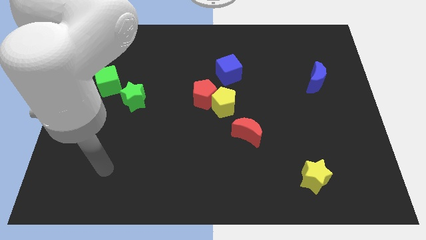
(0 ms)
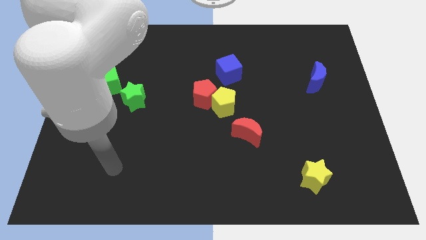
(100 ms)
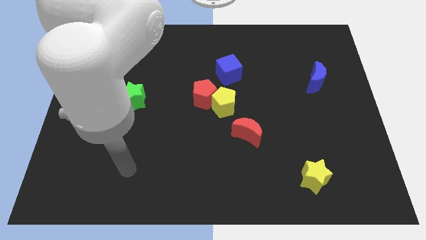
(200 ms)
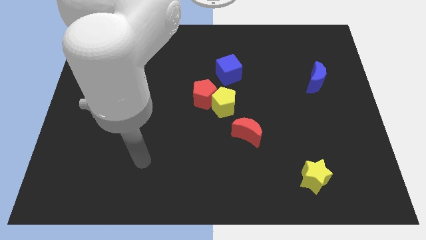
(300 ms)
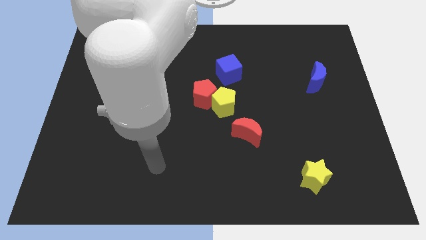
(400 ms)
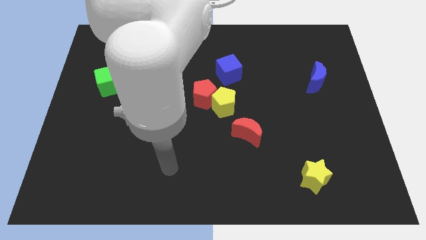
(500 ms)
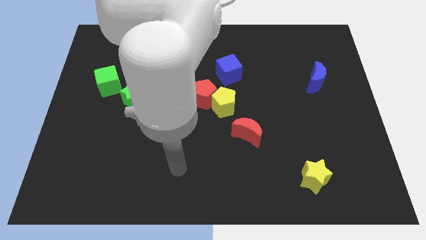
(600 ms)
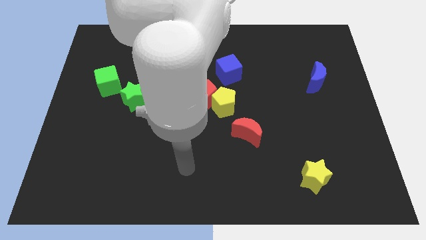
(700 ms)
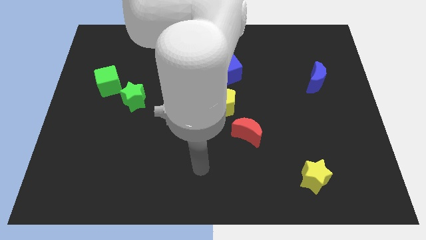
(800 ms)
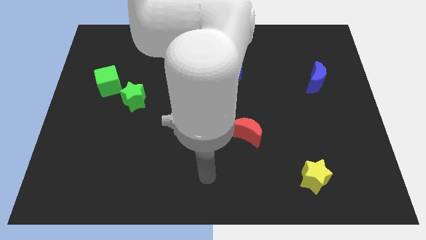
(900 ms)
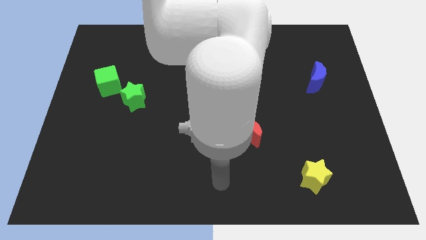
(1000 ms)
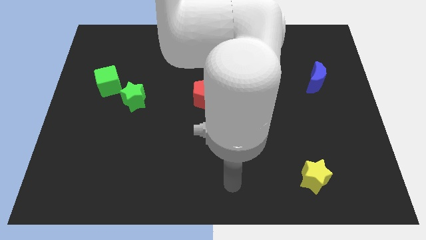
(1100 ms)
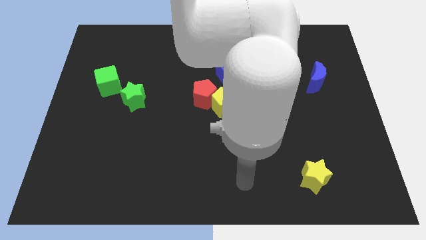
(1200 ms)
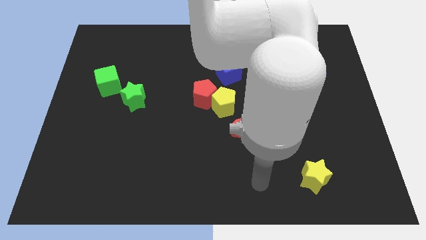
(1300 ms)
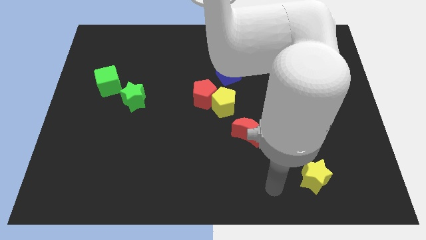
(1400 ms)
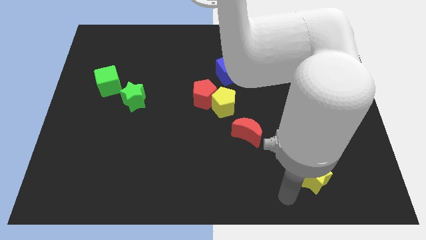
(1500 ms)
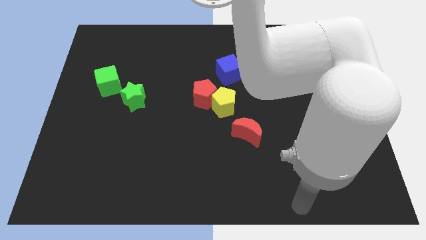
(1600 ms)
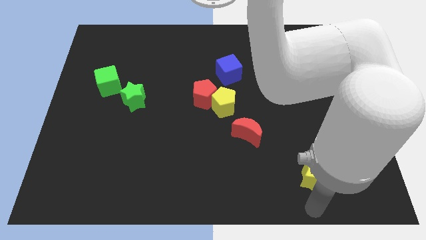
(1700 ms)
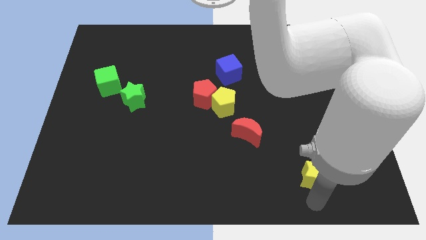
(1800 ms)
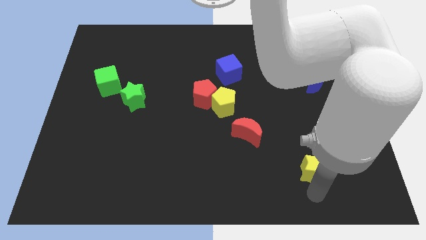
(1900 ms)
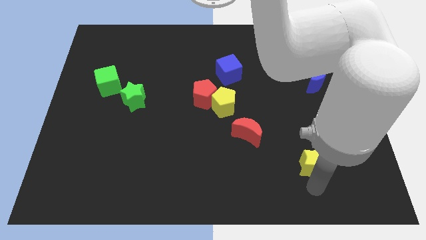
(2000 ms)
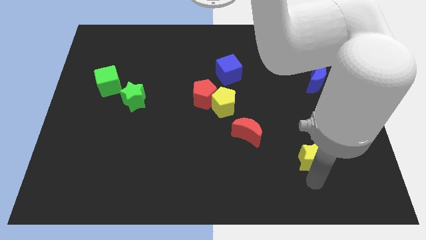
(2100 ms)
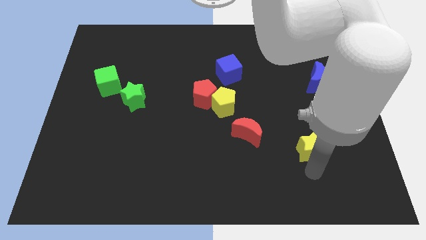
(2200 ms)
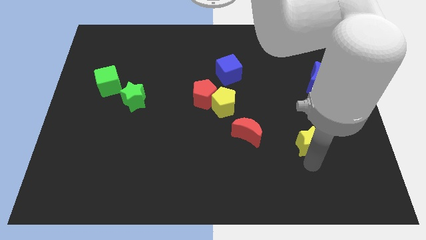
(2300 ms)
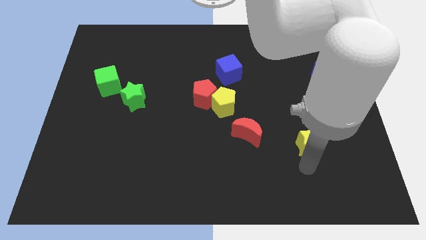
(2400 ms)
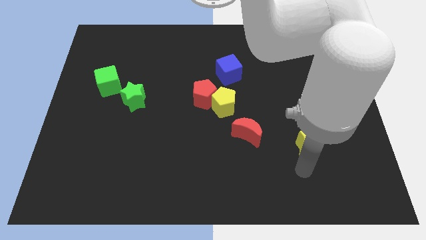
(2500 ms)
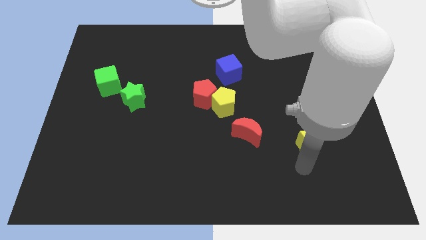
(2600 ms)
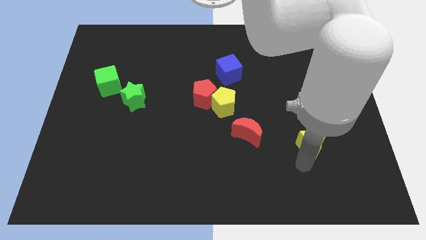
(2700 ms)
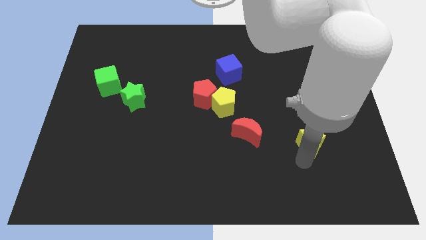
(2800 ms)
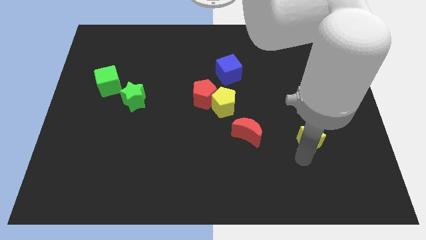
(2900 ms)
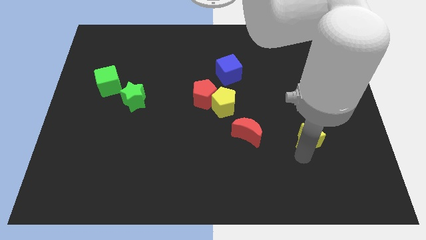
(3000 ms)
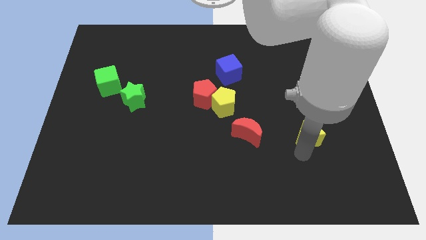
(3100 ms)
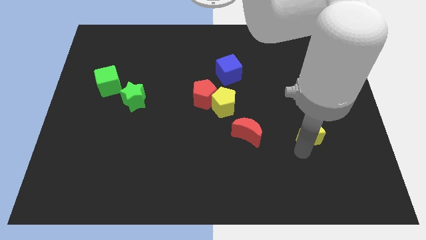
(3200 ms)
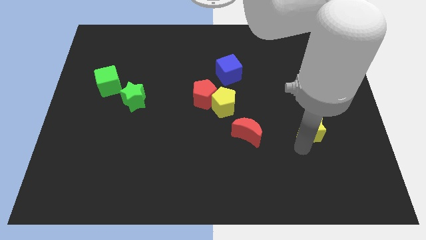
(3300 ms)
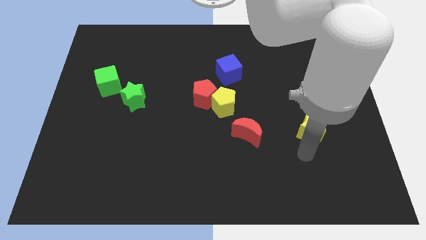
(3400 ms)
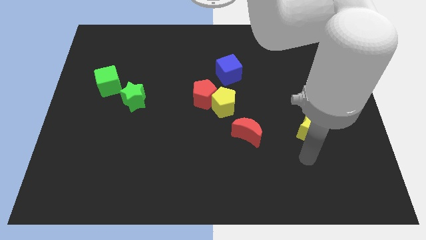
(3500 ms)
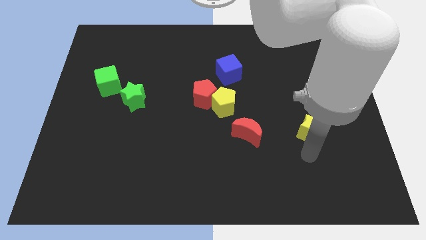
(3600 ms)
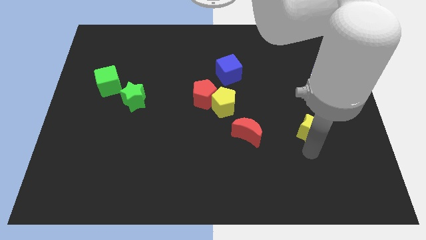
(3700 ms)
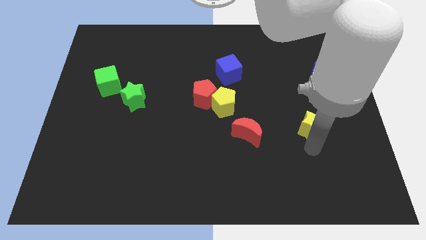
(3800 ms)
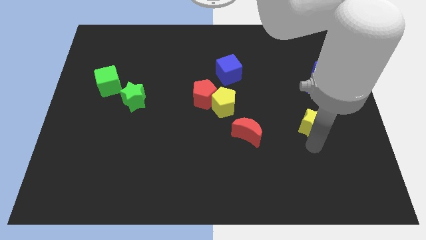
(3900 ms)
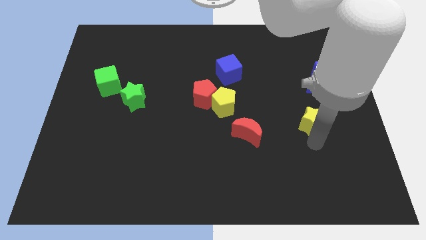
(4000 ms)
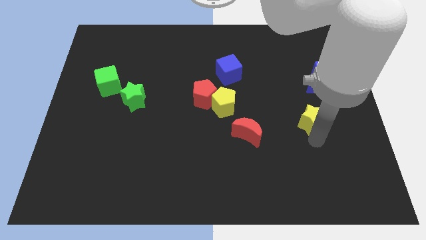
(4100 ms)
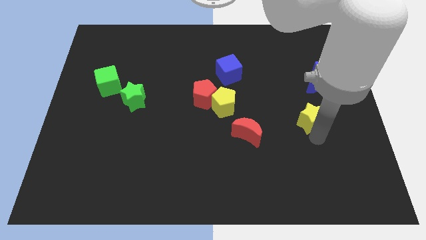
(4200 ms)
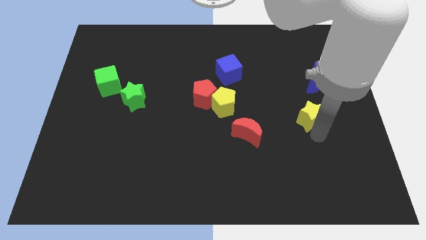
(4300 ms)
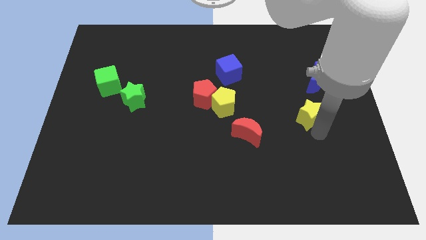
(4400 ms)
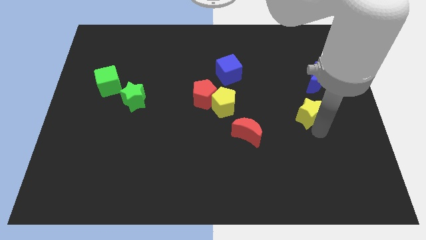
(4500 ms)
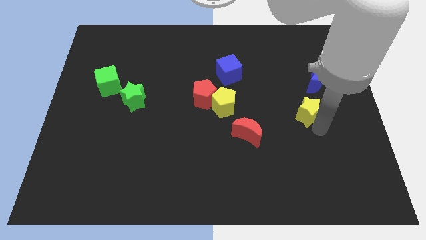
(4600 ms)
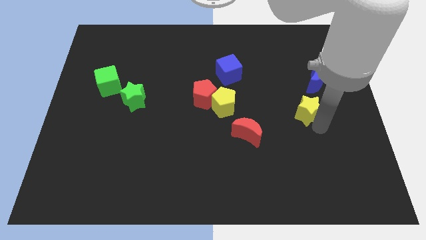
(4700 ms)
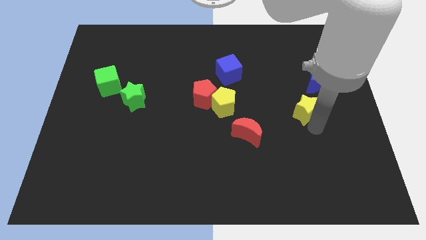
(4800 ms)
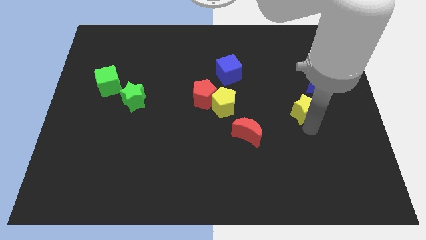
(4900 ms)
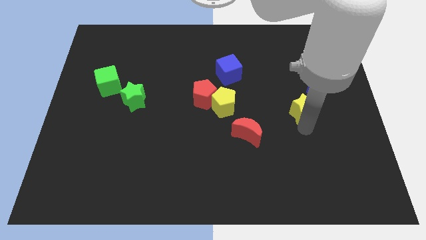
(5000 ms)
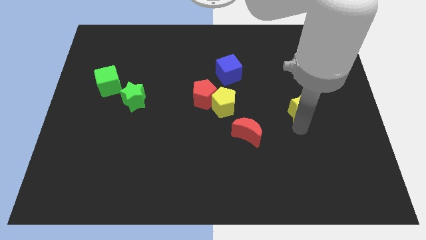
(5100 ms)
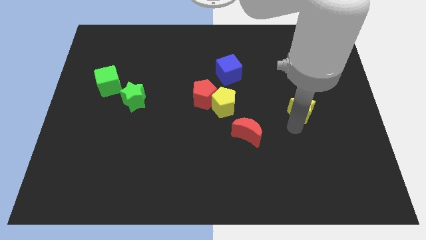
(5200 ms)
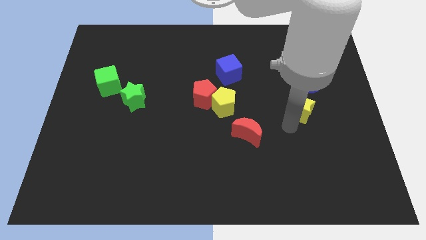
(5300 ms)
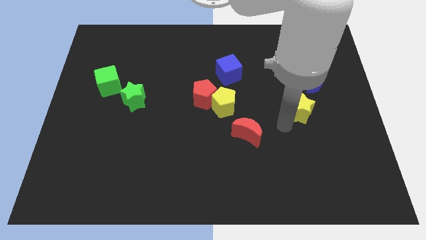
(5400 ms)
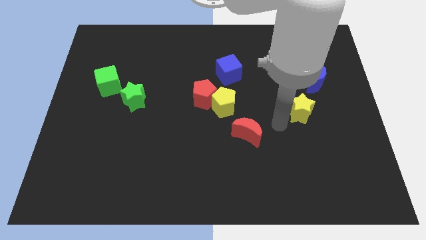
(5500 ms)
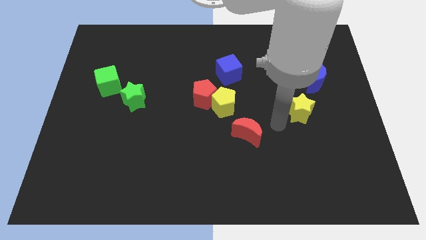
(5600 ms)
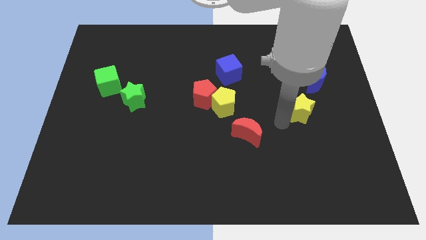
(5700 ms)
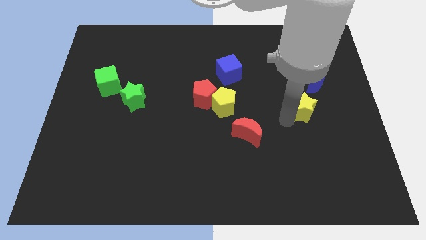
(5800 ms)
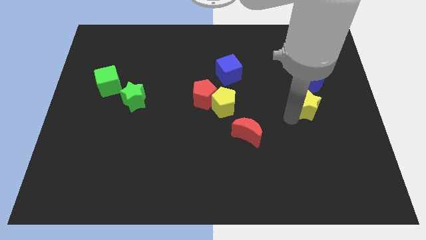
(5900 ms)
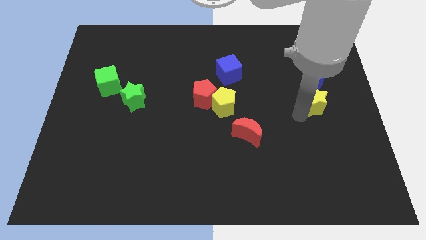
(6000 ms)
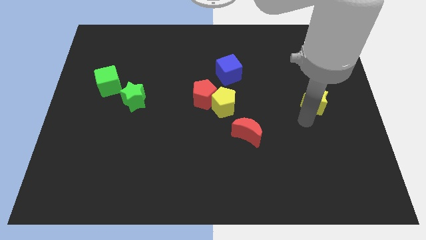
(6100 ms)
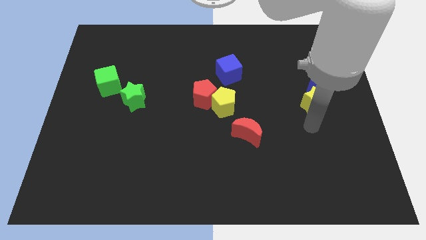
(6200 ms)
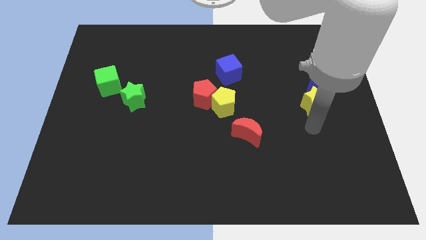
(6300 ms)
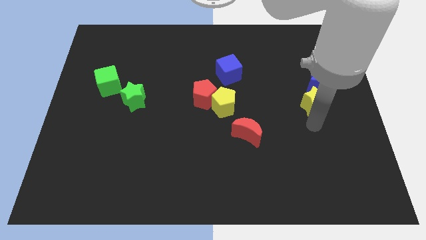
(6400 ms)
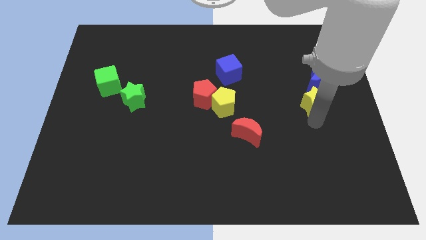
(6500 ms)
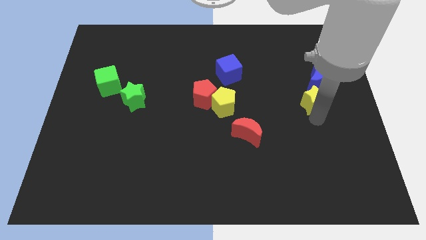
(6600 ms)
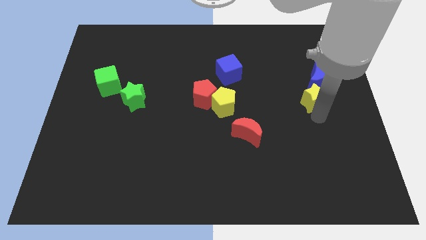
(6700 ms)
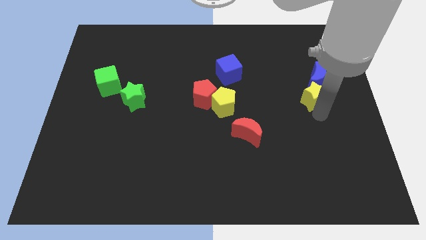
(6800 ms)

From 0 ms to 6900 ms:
slide the yellow star close to the blue moon
